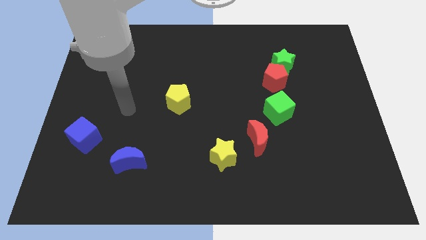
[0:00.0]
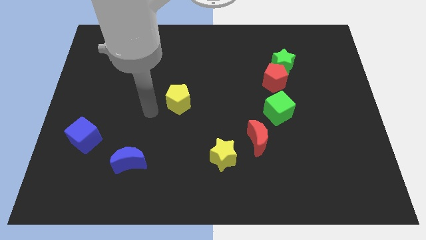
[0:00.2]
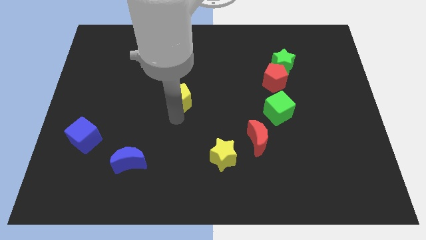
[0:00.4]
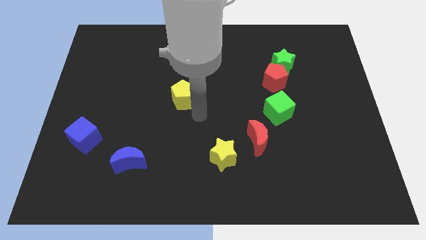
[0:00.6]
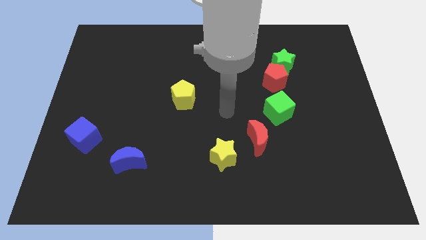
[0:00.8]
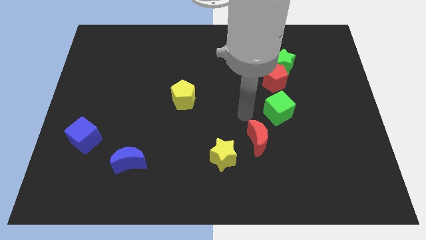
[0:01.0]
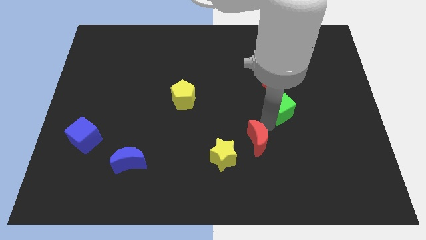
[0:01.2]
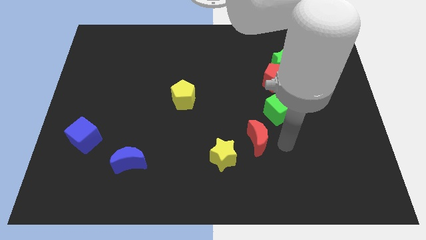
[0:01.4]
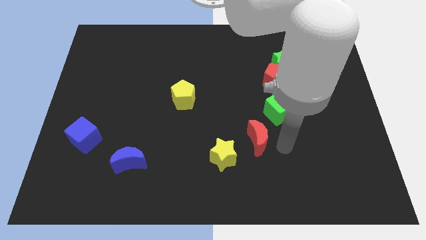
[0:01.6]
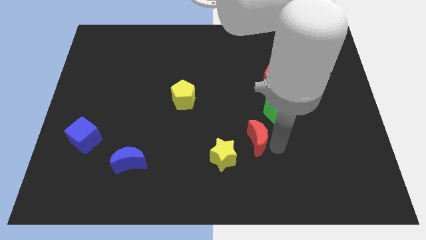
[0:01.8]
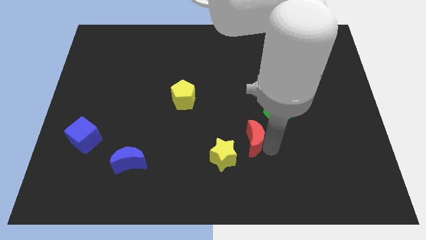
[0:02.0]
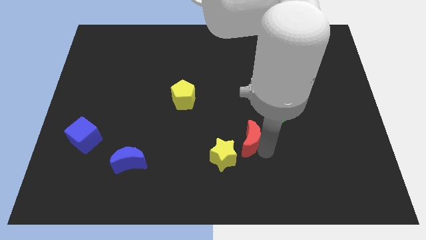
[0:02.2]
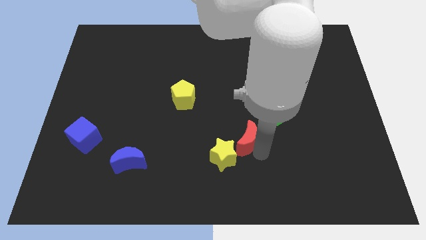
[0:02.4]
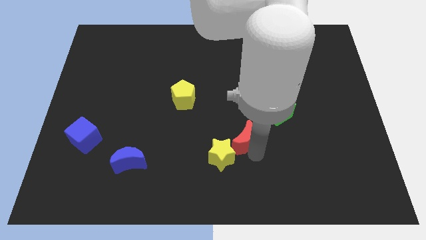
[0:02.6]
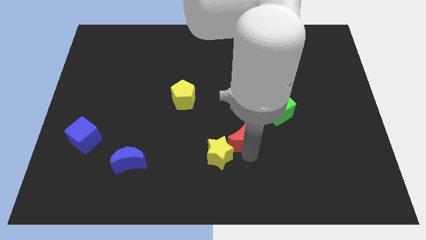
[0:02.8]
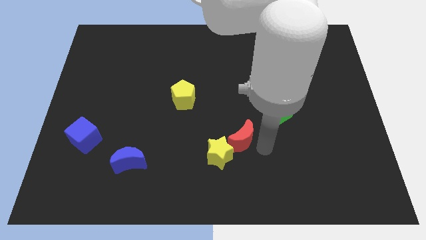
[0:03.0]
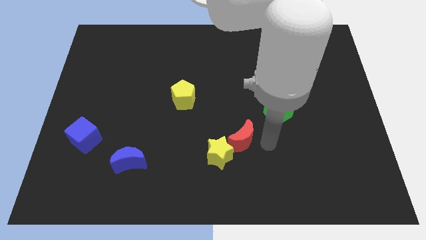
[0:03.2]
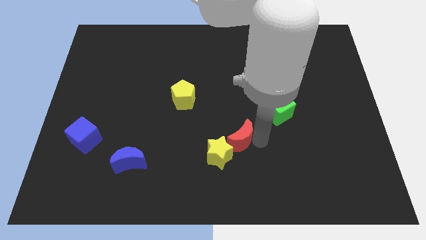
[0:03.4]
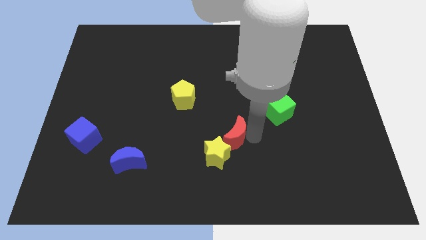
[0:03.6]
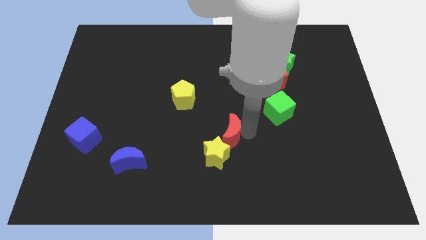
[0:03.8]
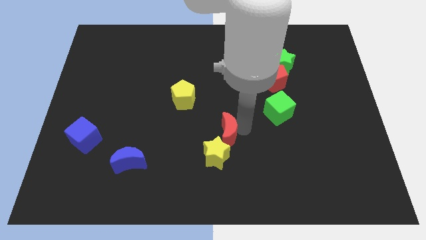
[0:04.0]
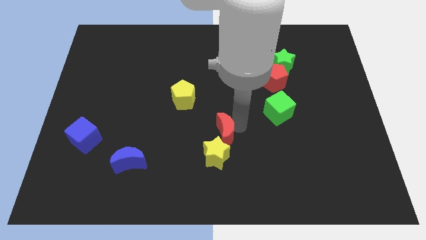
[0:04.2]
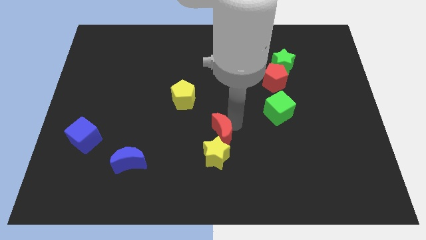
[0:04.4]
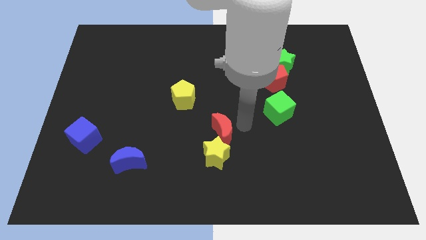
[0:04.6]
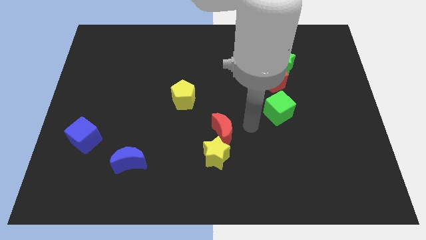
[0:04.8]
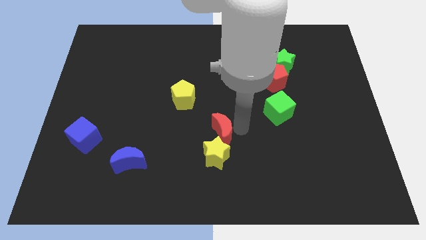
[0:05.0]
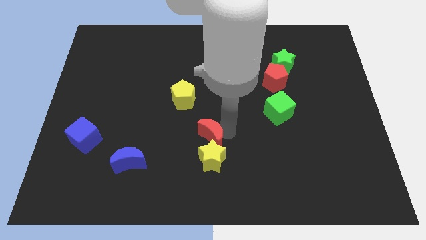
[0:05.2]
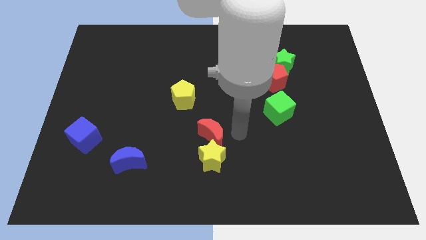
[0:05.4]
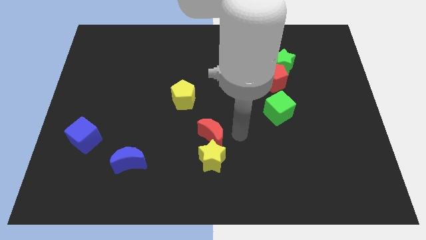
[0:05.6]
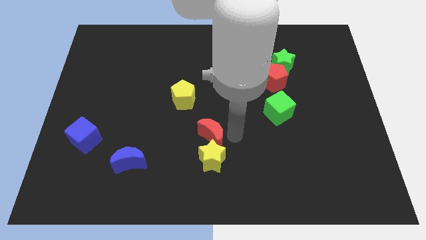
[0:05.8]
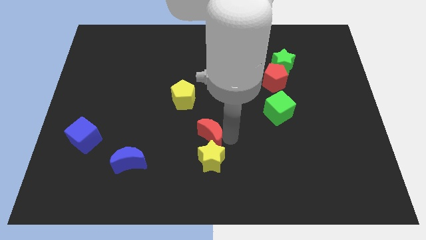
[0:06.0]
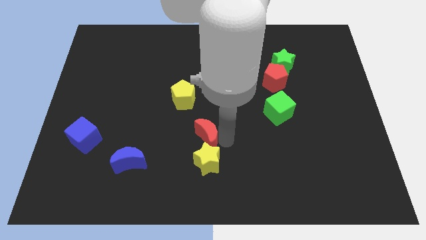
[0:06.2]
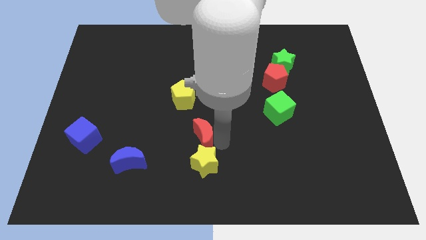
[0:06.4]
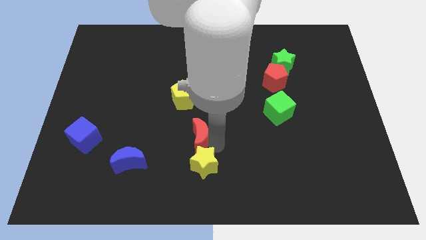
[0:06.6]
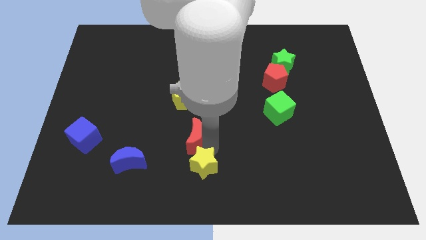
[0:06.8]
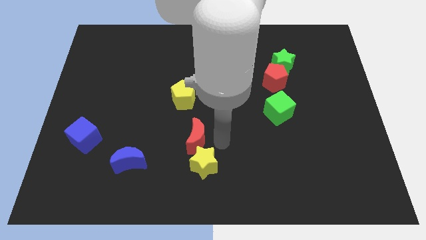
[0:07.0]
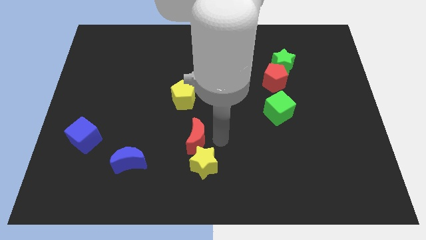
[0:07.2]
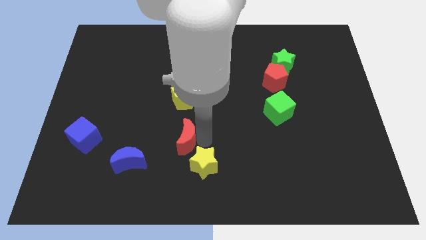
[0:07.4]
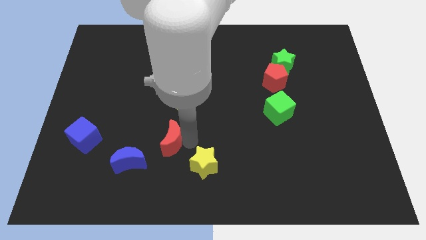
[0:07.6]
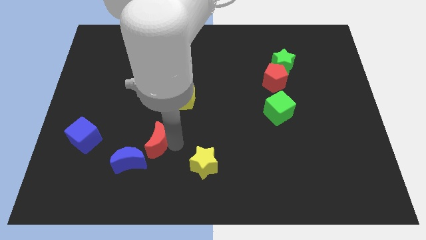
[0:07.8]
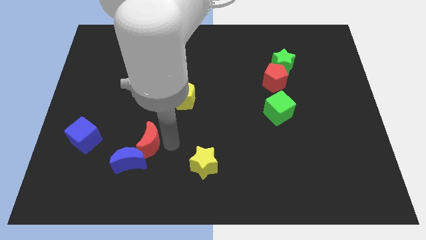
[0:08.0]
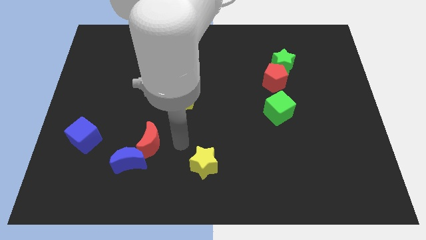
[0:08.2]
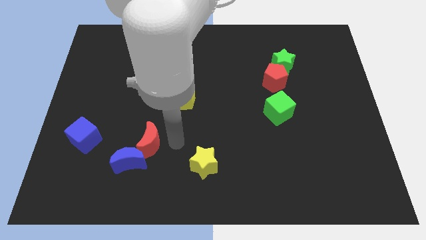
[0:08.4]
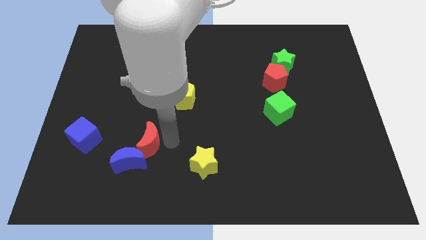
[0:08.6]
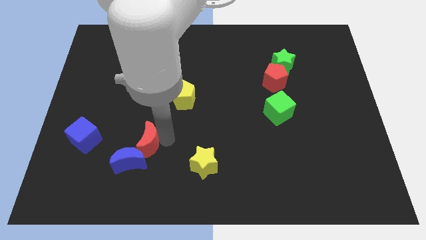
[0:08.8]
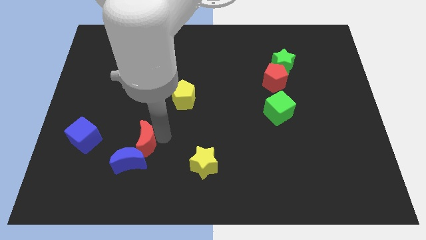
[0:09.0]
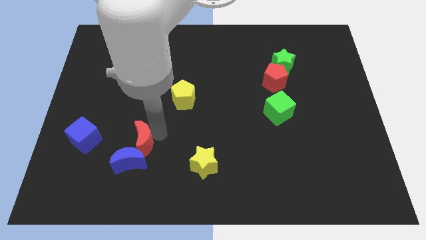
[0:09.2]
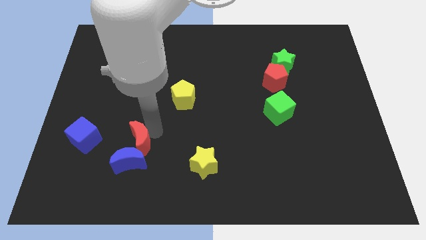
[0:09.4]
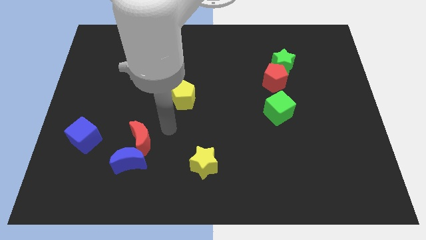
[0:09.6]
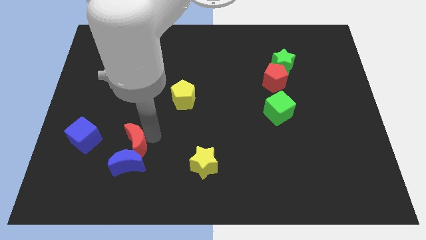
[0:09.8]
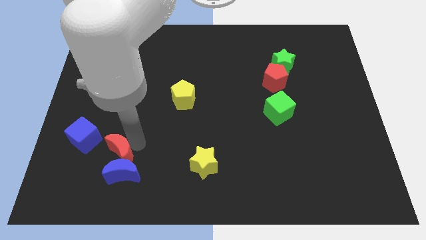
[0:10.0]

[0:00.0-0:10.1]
slide the red moon to the bottom right side of the blue cube

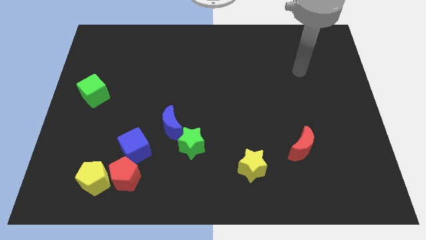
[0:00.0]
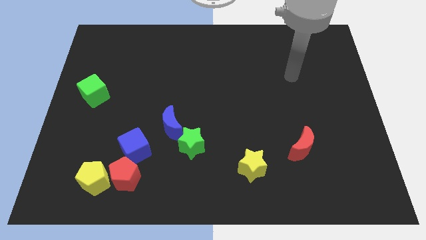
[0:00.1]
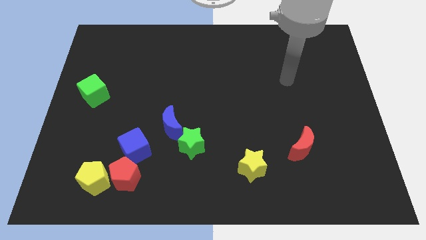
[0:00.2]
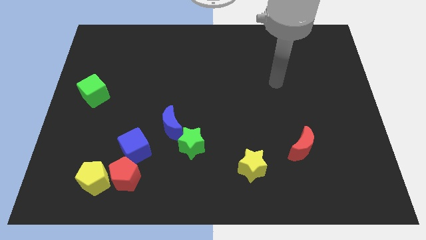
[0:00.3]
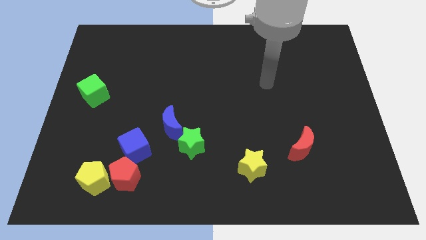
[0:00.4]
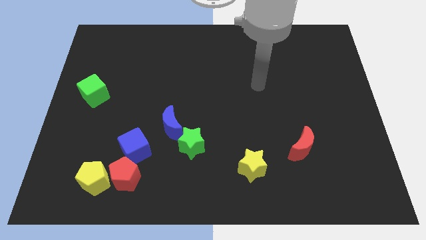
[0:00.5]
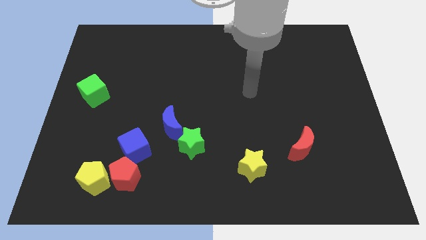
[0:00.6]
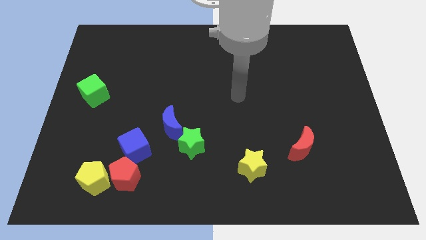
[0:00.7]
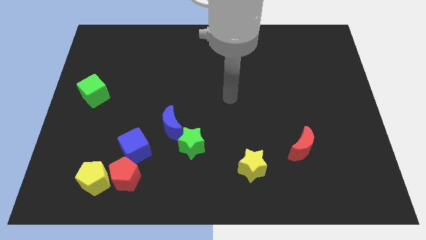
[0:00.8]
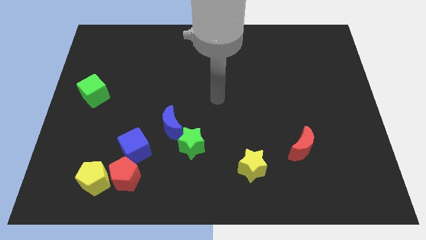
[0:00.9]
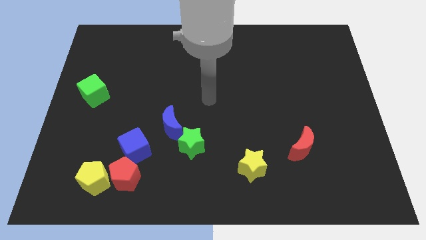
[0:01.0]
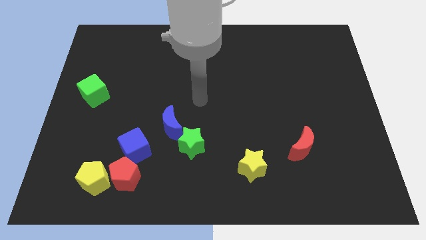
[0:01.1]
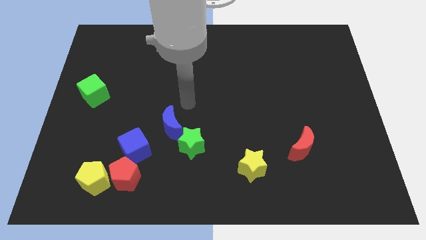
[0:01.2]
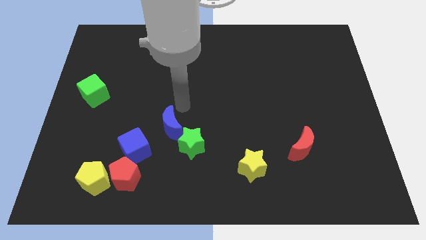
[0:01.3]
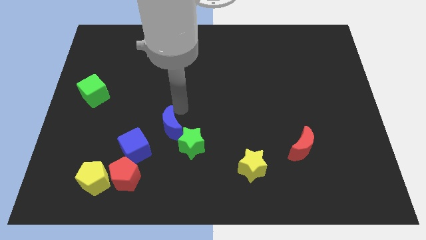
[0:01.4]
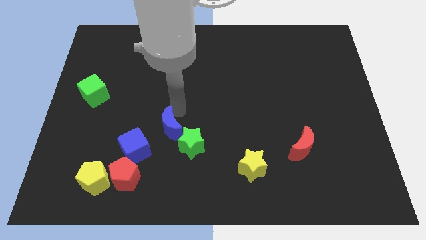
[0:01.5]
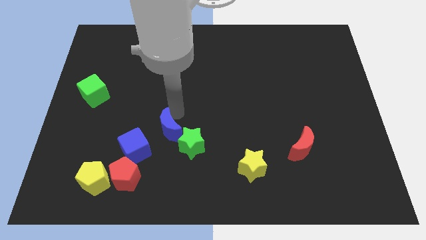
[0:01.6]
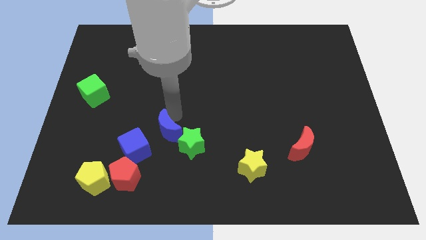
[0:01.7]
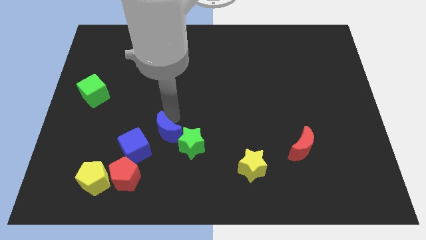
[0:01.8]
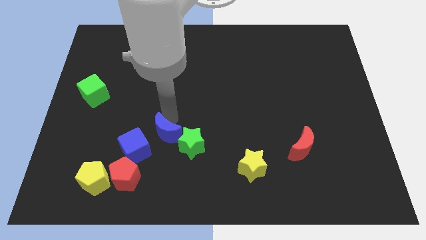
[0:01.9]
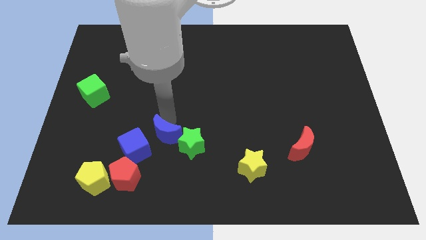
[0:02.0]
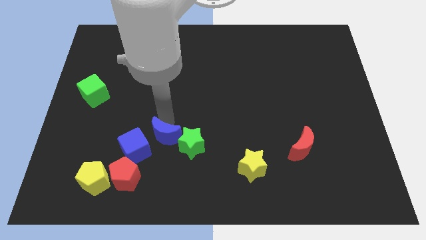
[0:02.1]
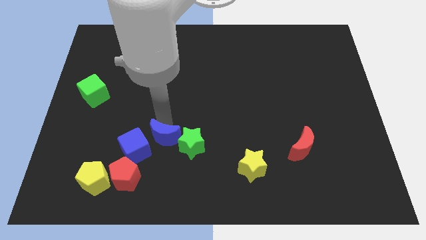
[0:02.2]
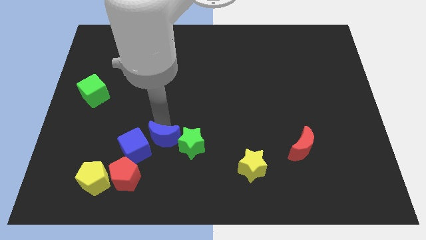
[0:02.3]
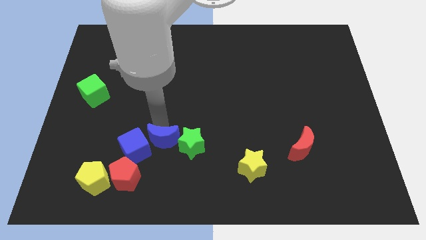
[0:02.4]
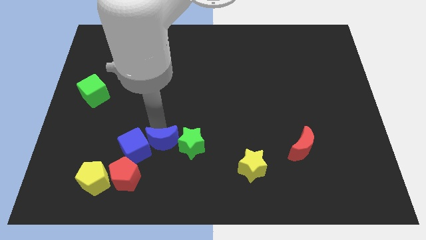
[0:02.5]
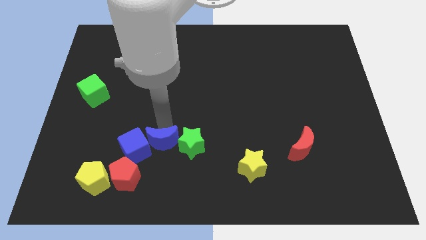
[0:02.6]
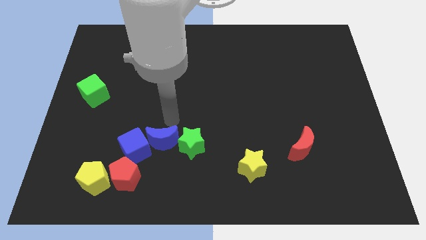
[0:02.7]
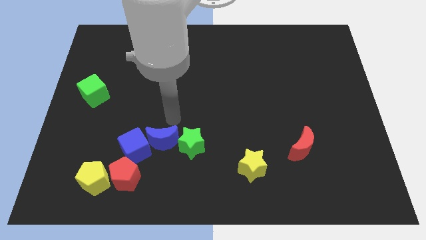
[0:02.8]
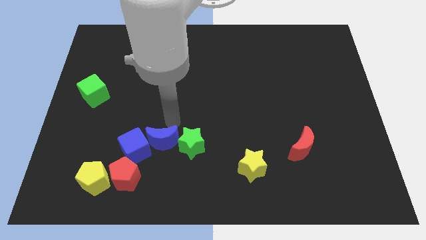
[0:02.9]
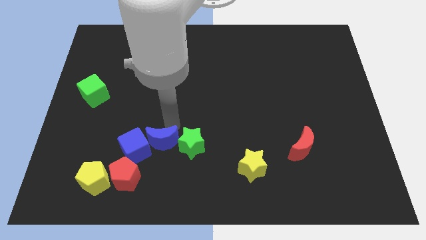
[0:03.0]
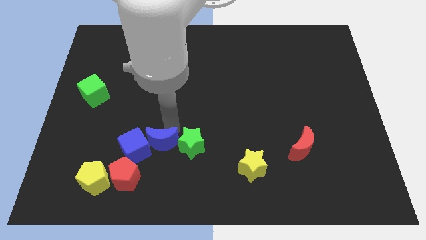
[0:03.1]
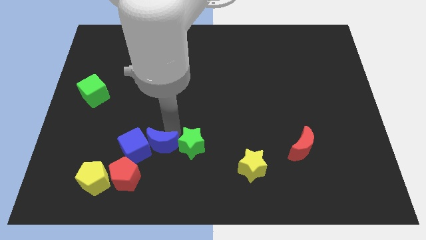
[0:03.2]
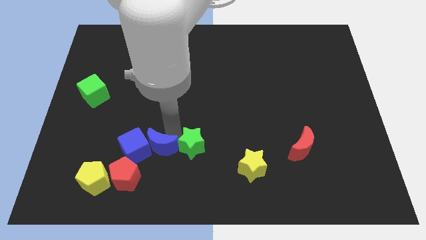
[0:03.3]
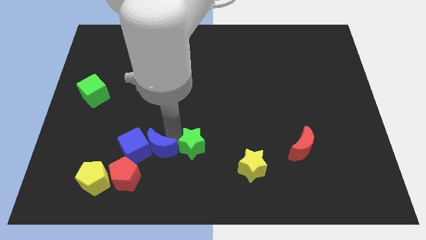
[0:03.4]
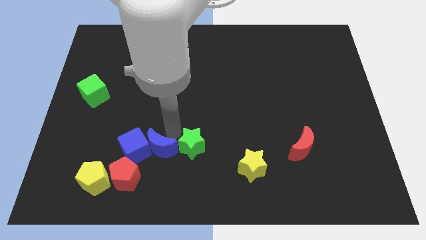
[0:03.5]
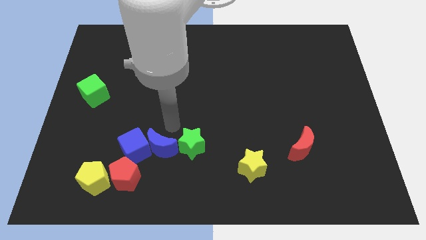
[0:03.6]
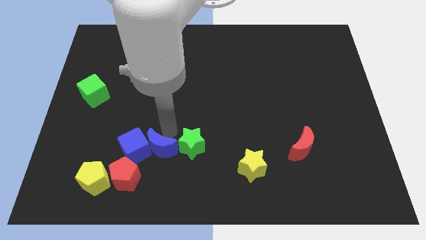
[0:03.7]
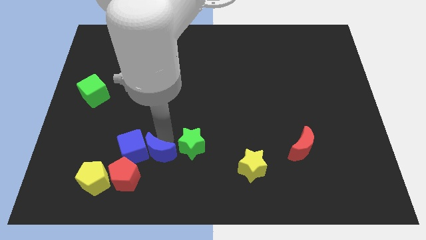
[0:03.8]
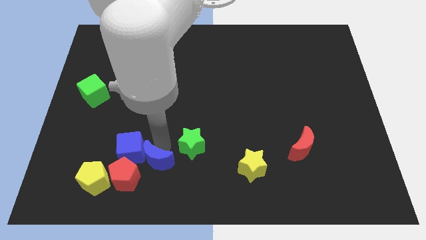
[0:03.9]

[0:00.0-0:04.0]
move the blue moon to the right side of the yellow pentagon
